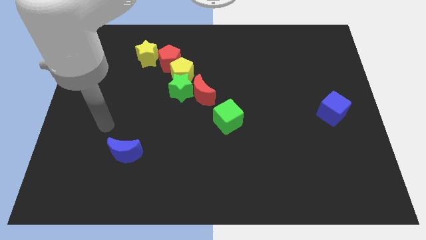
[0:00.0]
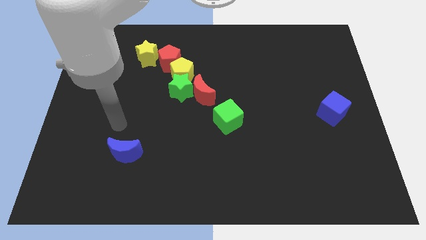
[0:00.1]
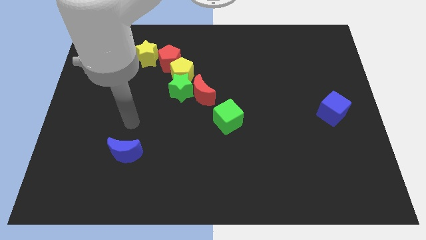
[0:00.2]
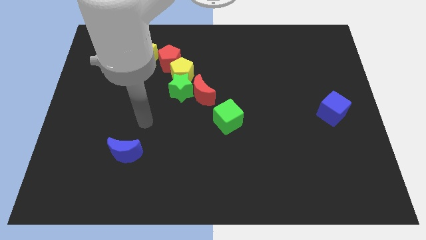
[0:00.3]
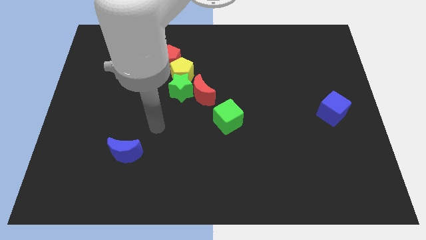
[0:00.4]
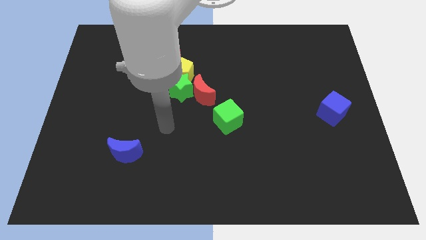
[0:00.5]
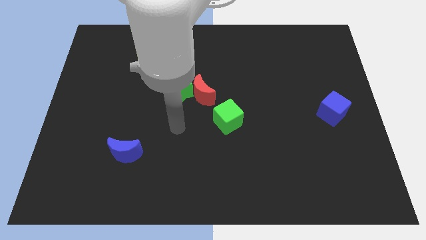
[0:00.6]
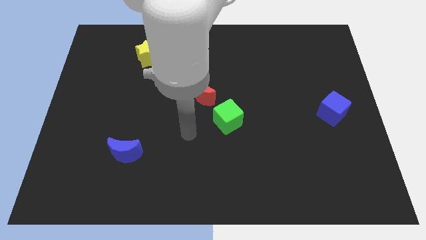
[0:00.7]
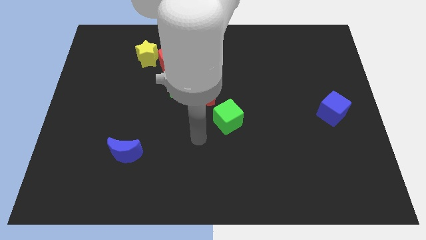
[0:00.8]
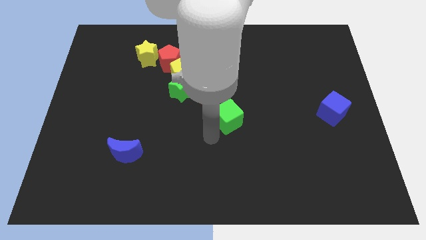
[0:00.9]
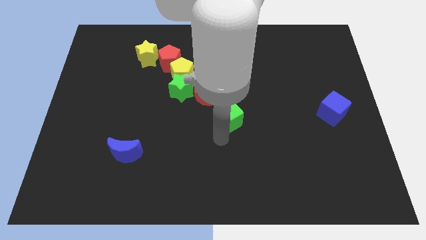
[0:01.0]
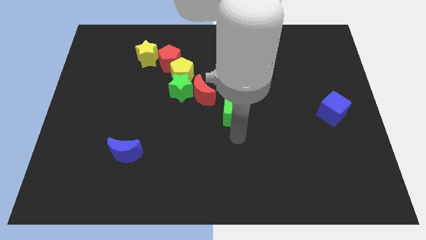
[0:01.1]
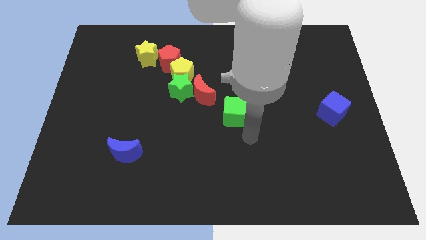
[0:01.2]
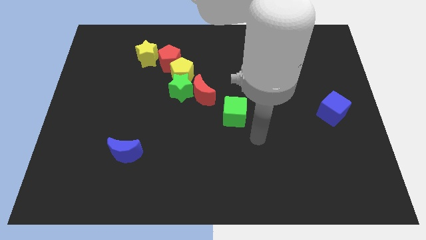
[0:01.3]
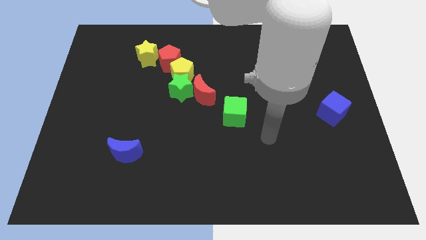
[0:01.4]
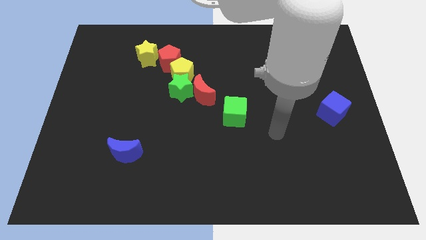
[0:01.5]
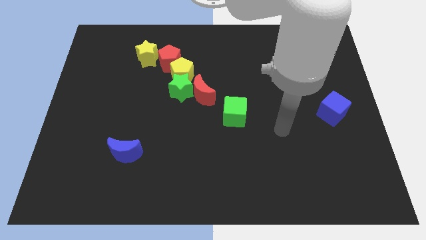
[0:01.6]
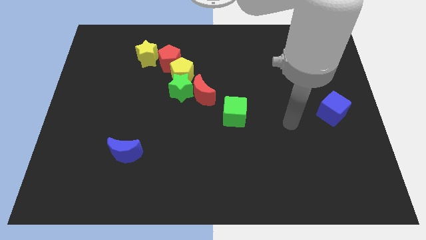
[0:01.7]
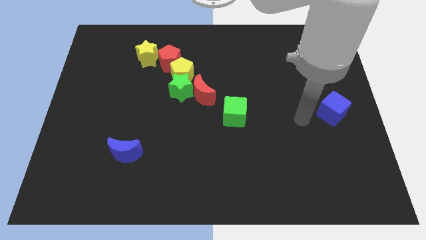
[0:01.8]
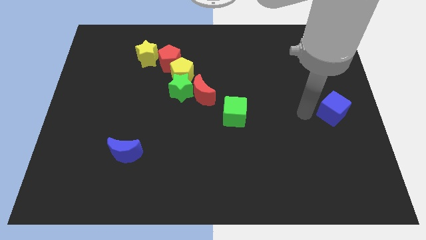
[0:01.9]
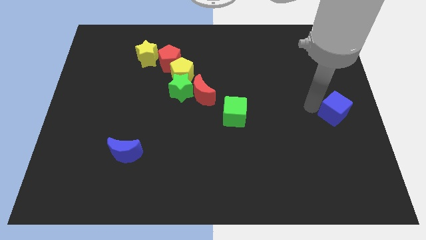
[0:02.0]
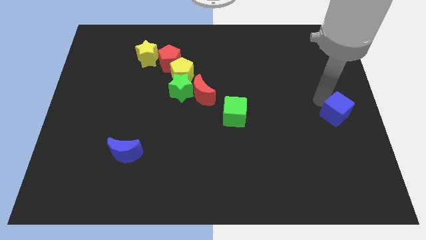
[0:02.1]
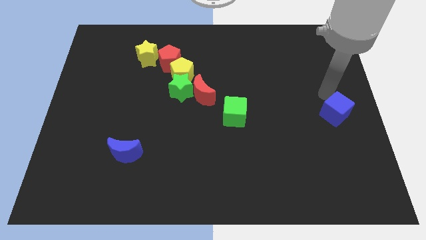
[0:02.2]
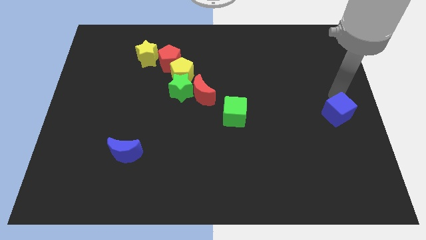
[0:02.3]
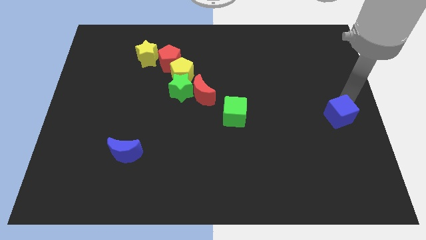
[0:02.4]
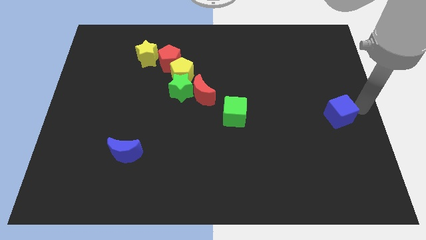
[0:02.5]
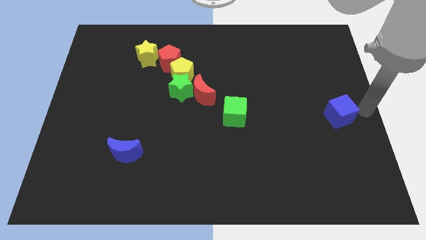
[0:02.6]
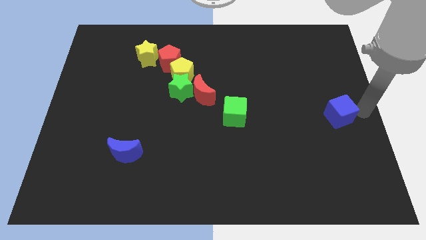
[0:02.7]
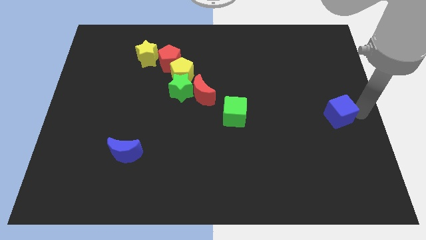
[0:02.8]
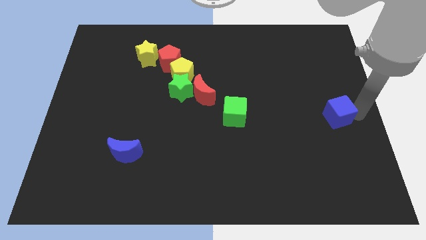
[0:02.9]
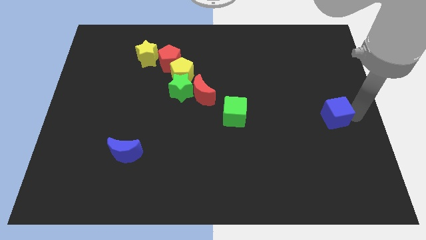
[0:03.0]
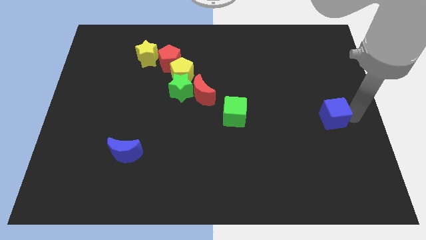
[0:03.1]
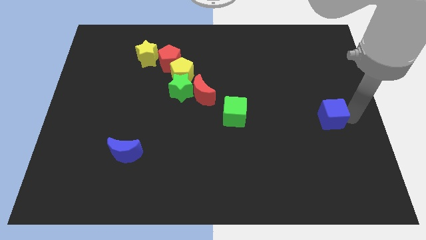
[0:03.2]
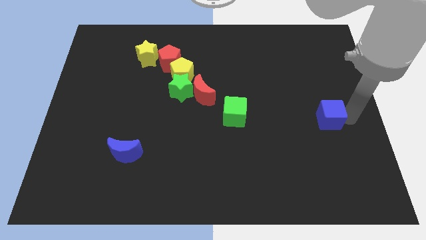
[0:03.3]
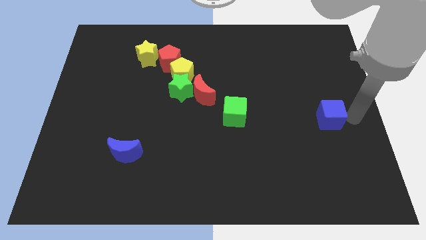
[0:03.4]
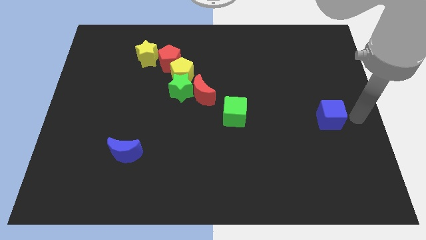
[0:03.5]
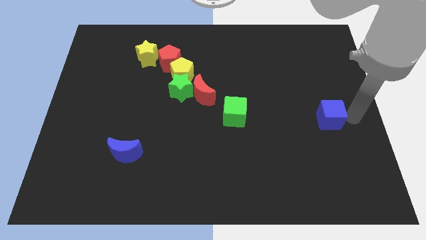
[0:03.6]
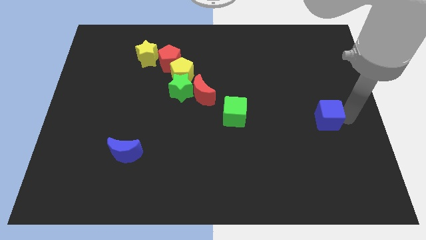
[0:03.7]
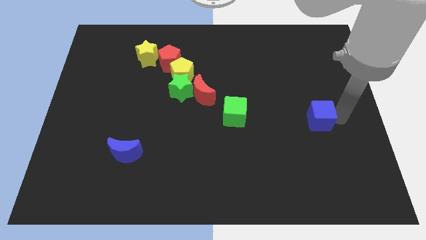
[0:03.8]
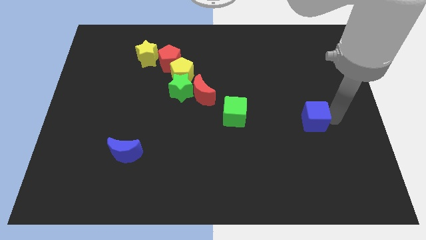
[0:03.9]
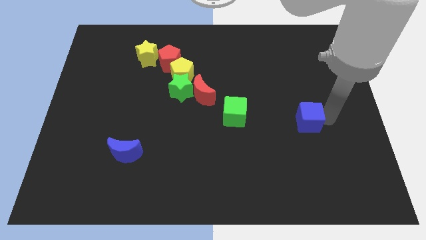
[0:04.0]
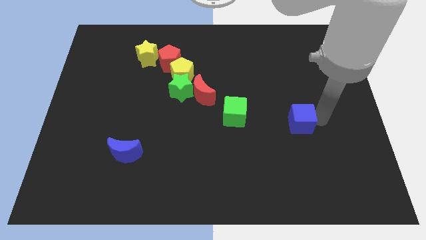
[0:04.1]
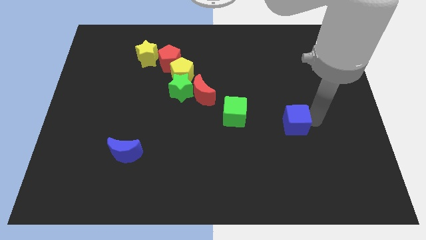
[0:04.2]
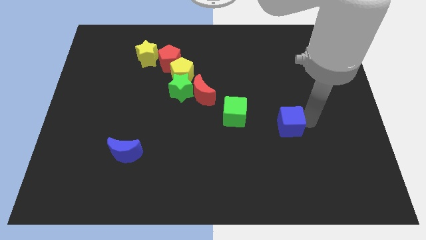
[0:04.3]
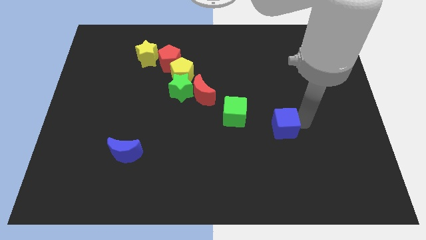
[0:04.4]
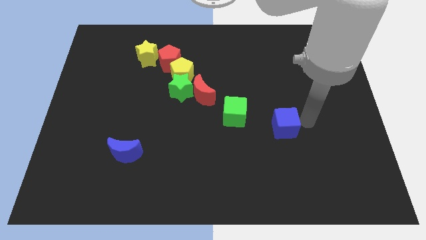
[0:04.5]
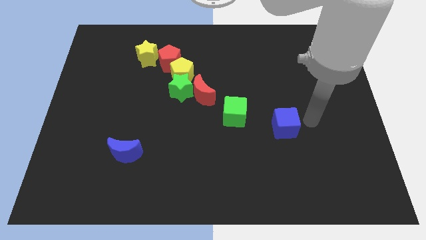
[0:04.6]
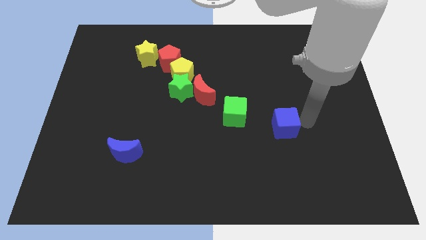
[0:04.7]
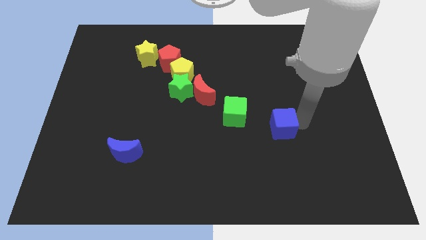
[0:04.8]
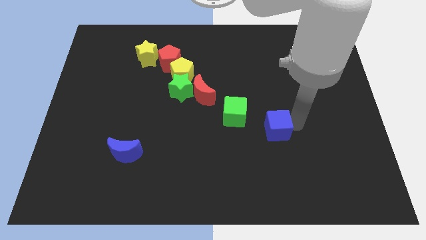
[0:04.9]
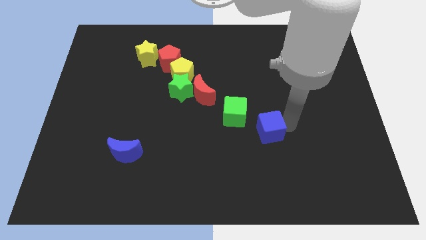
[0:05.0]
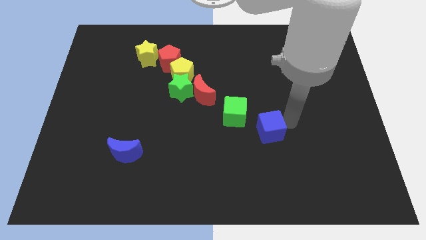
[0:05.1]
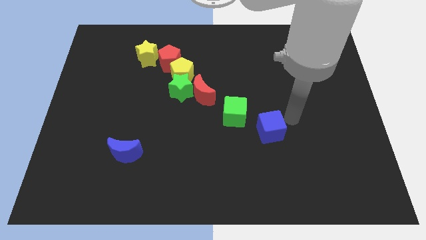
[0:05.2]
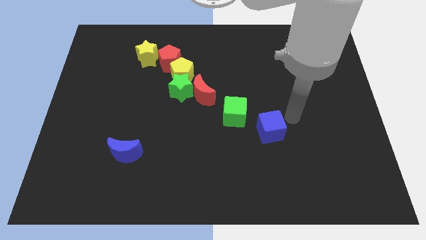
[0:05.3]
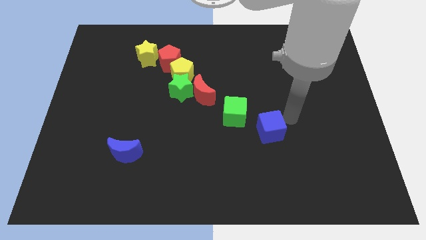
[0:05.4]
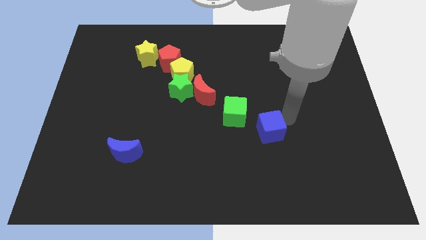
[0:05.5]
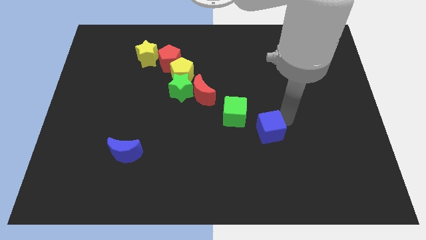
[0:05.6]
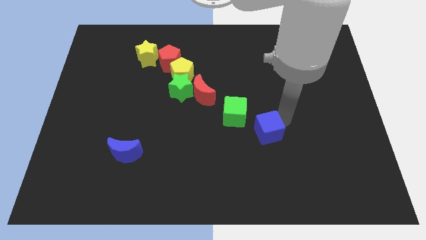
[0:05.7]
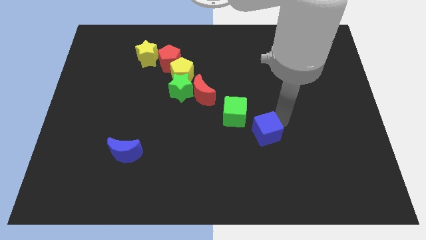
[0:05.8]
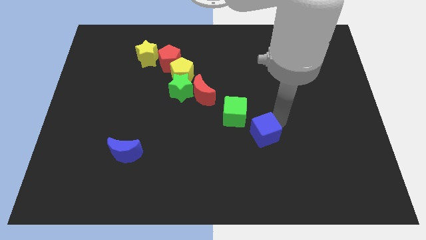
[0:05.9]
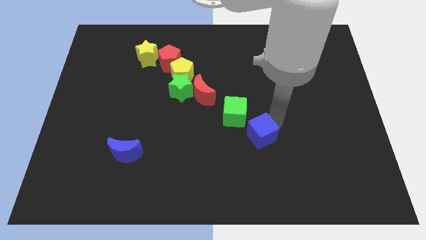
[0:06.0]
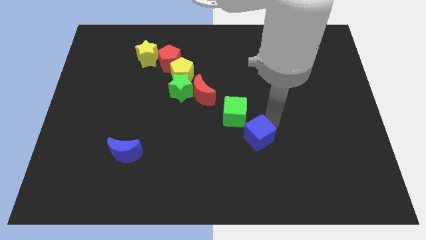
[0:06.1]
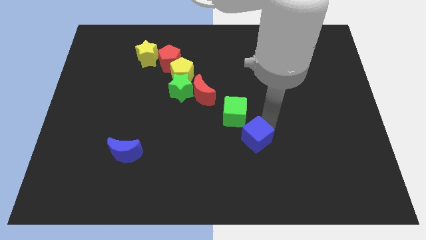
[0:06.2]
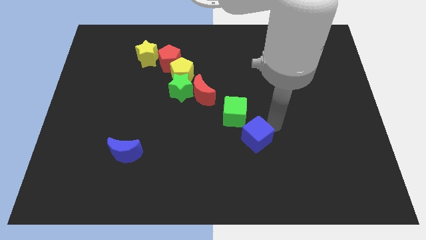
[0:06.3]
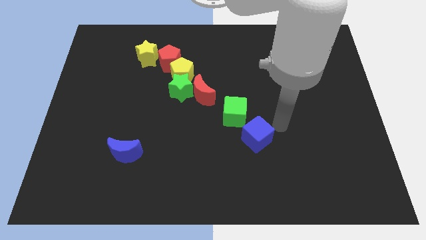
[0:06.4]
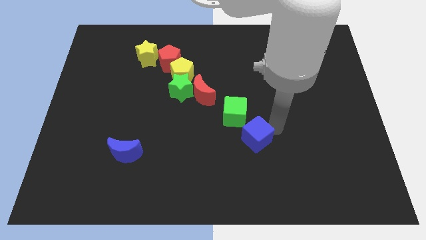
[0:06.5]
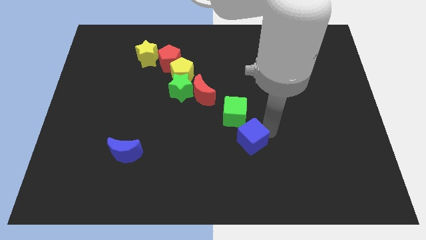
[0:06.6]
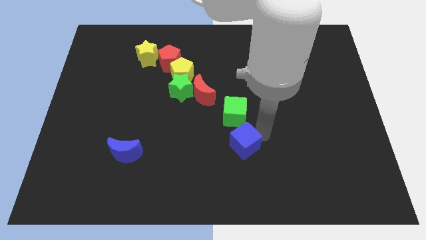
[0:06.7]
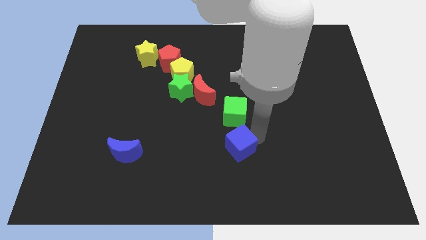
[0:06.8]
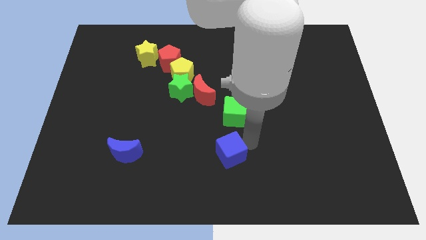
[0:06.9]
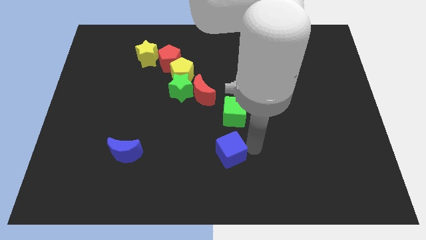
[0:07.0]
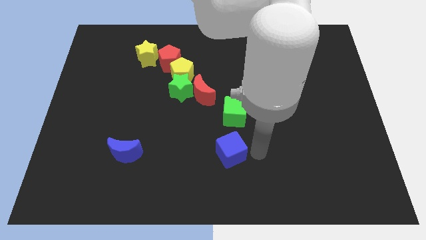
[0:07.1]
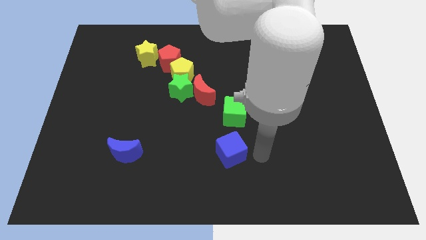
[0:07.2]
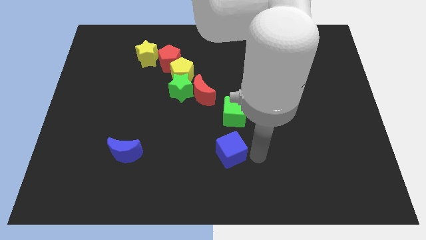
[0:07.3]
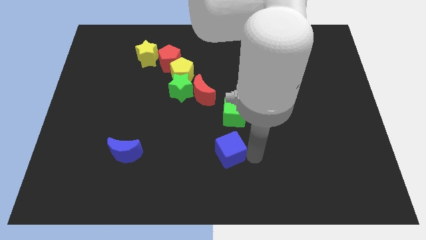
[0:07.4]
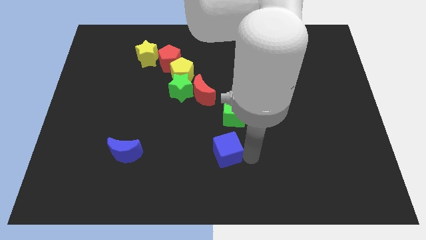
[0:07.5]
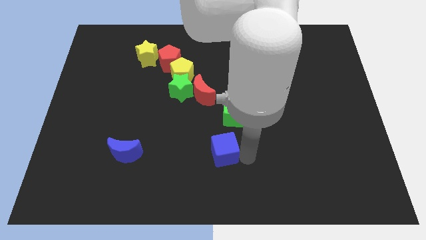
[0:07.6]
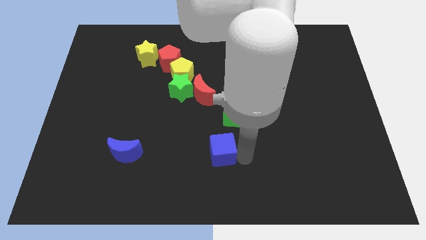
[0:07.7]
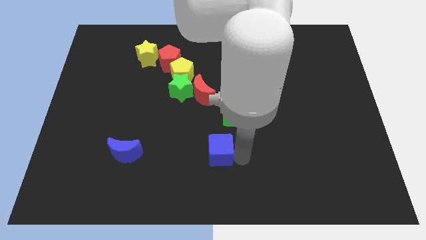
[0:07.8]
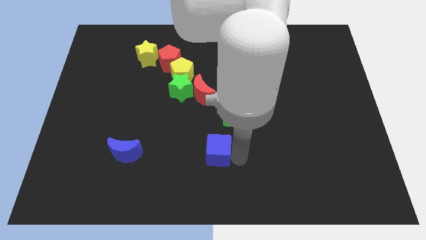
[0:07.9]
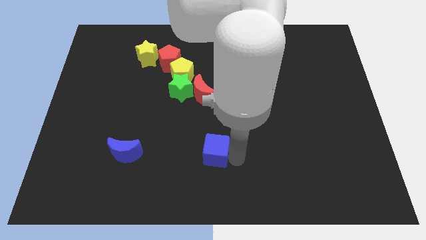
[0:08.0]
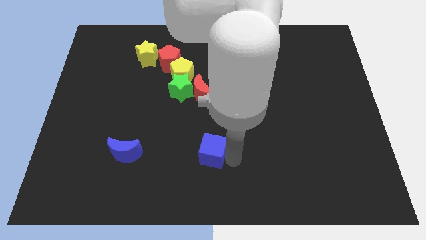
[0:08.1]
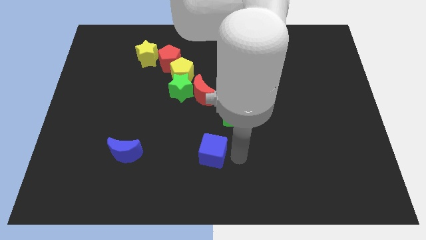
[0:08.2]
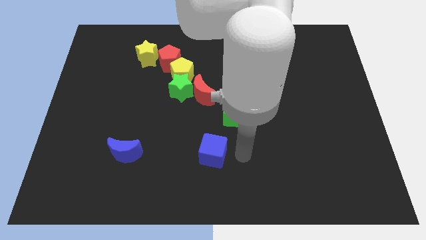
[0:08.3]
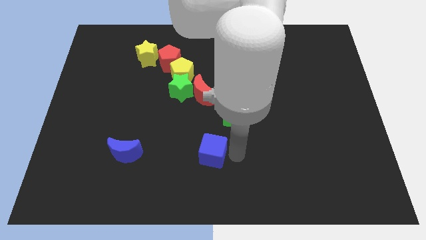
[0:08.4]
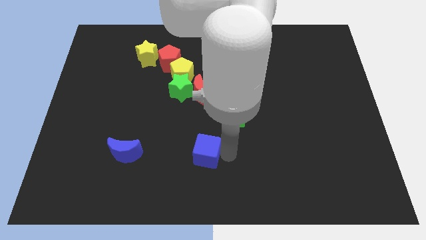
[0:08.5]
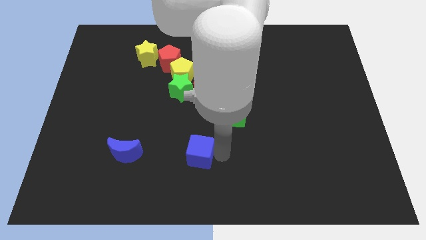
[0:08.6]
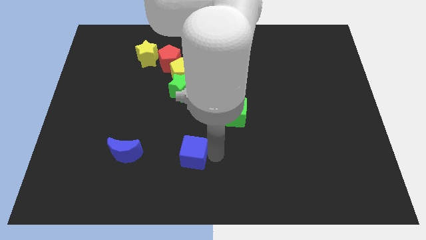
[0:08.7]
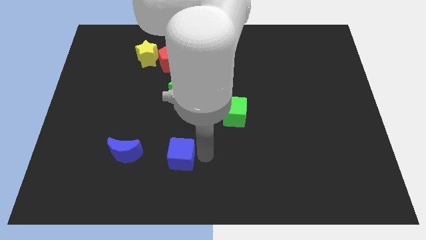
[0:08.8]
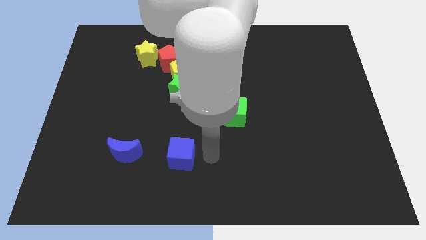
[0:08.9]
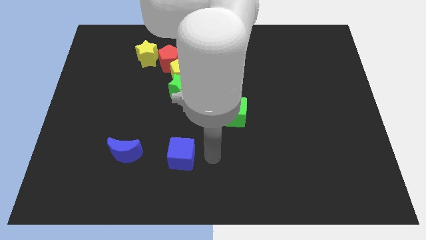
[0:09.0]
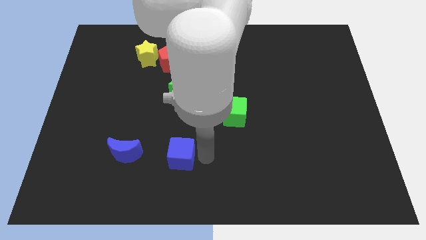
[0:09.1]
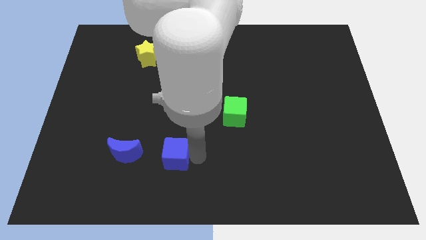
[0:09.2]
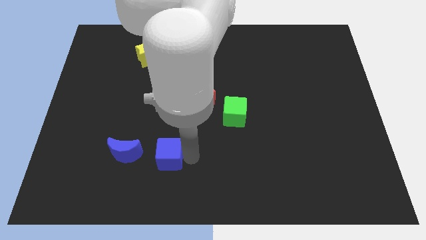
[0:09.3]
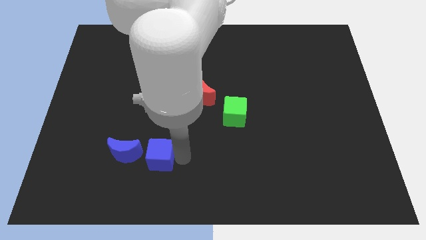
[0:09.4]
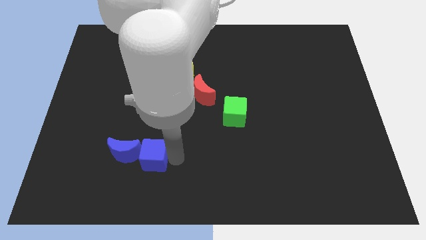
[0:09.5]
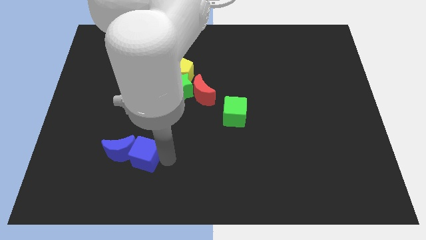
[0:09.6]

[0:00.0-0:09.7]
slide the blue cube close to the blue moon
